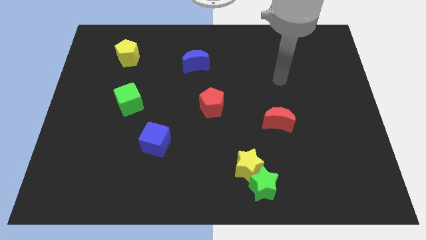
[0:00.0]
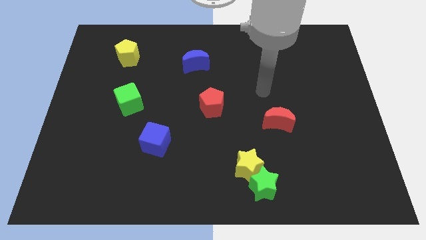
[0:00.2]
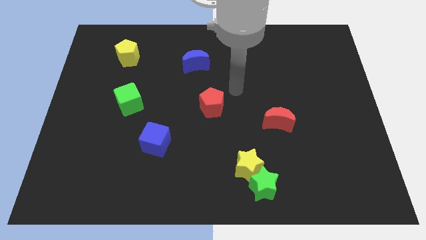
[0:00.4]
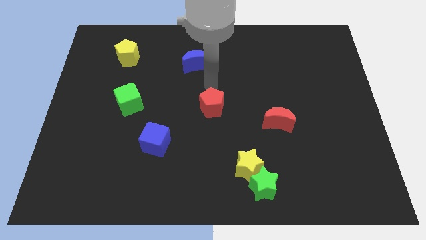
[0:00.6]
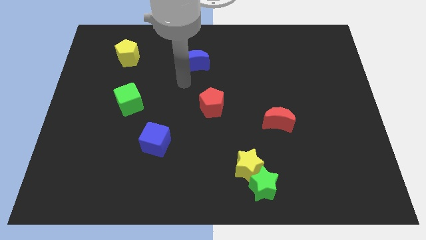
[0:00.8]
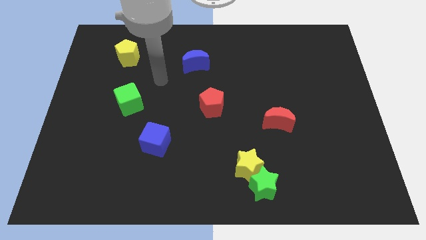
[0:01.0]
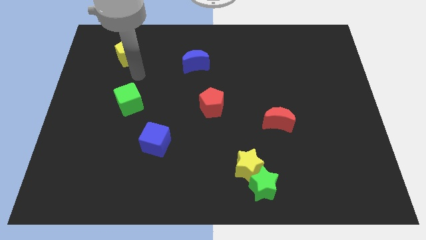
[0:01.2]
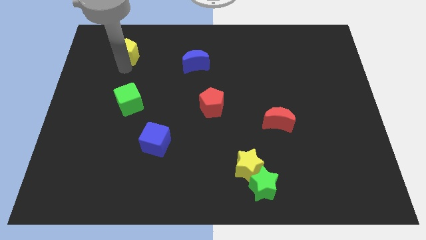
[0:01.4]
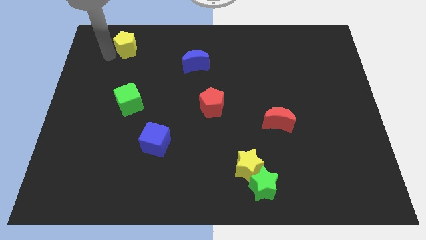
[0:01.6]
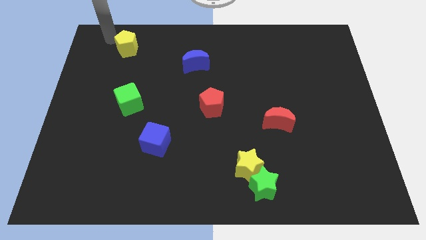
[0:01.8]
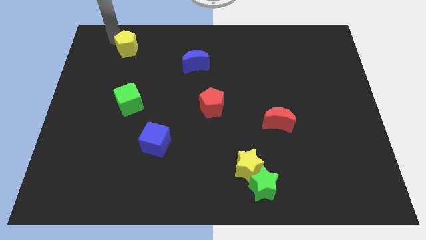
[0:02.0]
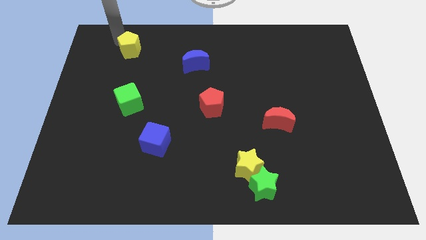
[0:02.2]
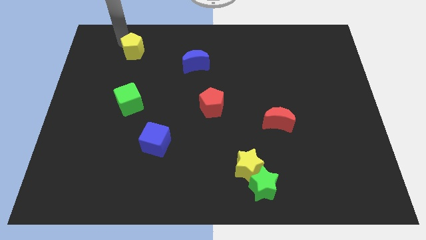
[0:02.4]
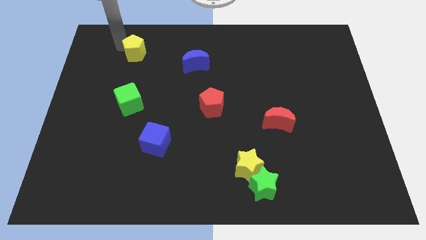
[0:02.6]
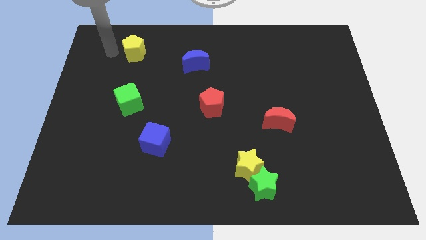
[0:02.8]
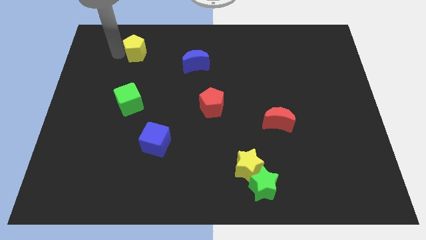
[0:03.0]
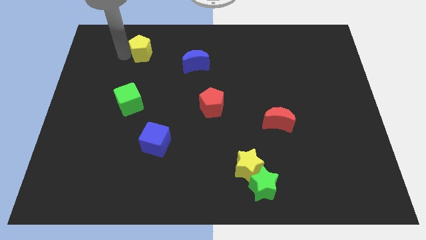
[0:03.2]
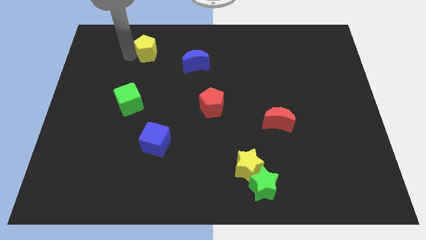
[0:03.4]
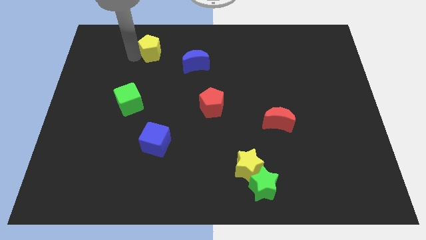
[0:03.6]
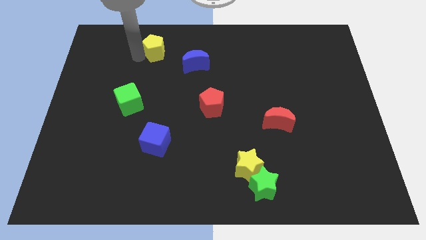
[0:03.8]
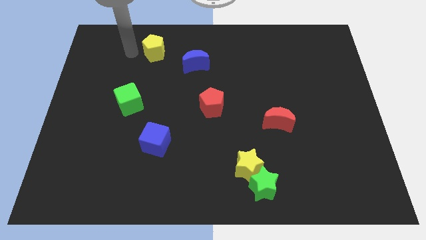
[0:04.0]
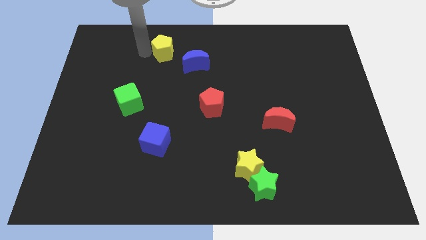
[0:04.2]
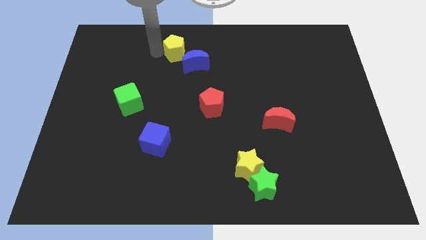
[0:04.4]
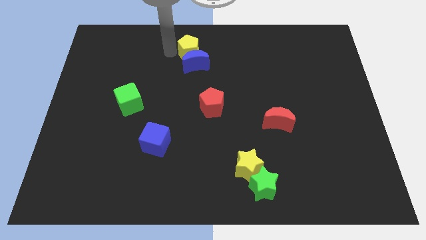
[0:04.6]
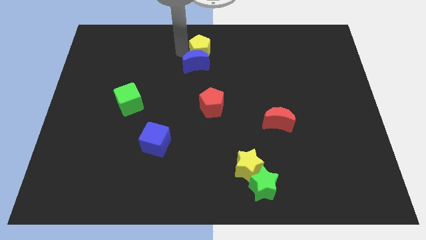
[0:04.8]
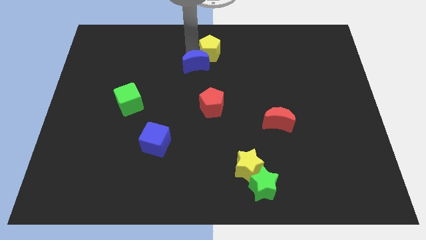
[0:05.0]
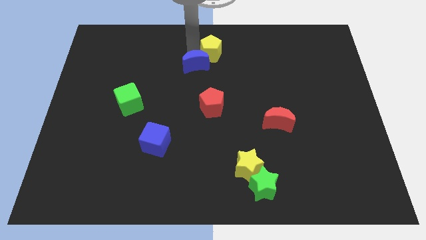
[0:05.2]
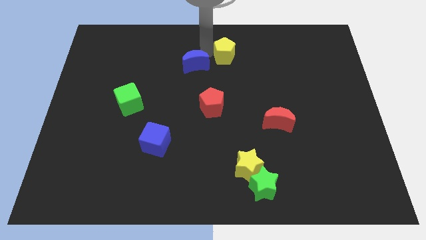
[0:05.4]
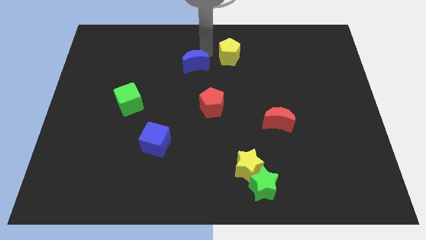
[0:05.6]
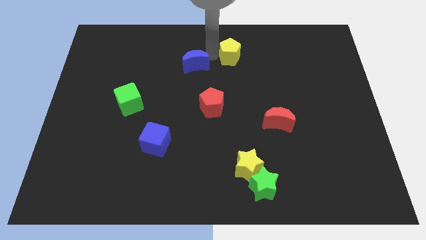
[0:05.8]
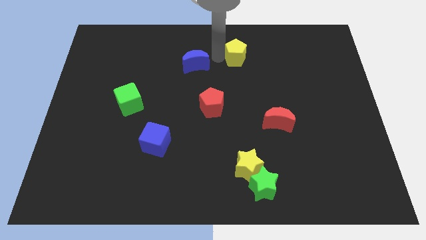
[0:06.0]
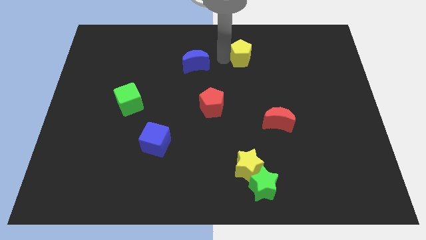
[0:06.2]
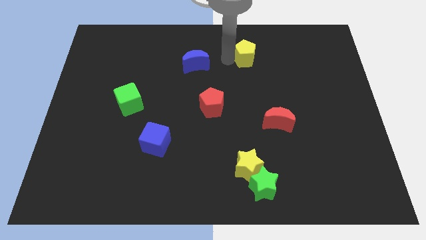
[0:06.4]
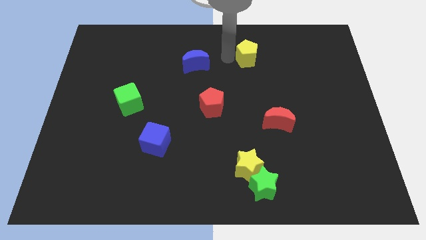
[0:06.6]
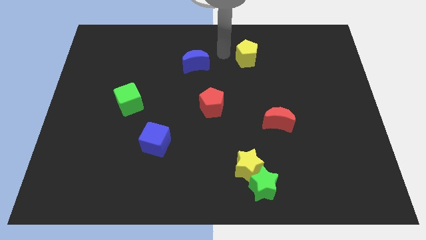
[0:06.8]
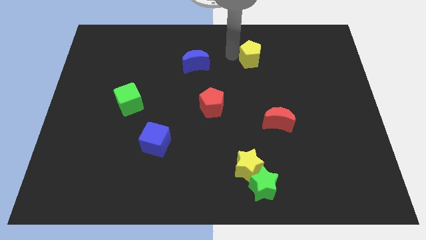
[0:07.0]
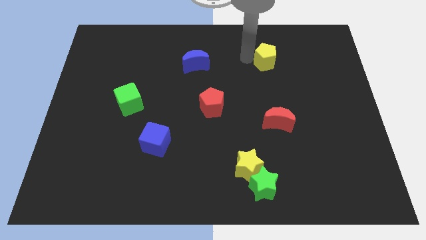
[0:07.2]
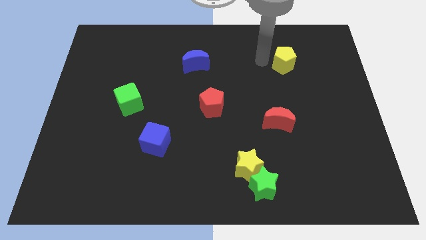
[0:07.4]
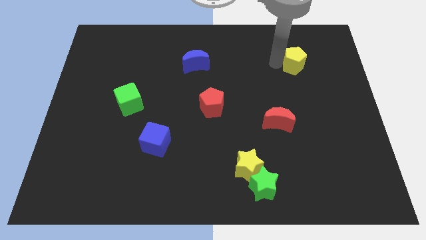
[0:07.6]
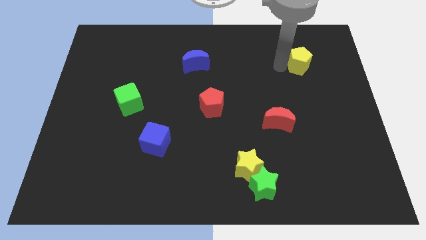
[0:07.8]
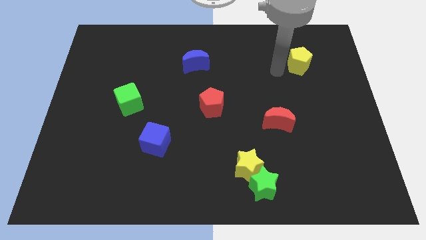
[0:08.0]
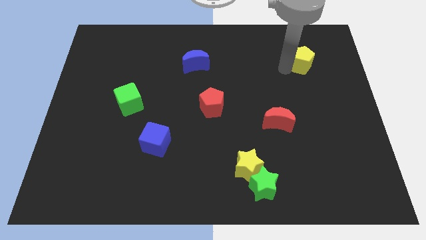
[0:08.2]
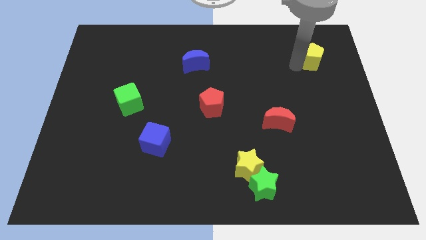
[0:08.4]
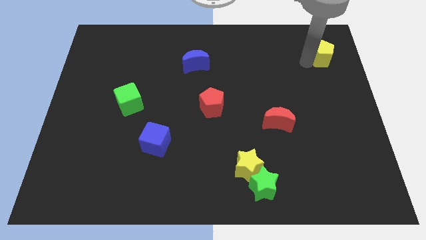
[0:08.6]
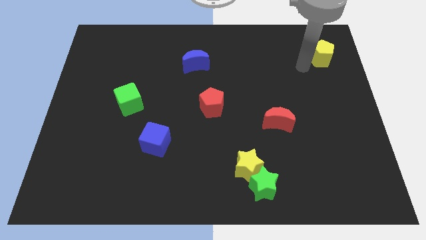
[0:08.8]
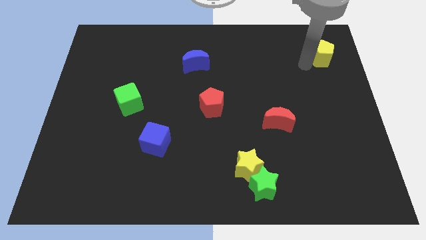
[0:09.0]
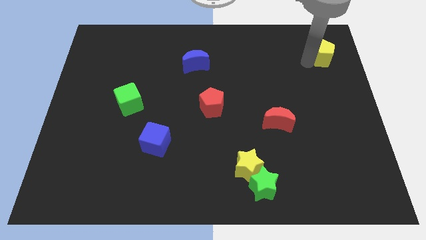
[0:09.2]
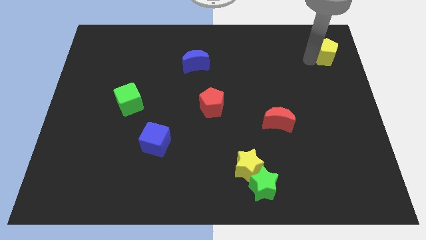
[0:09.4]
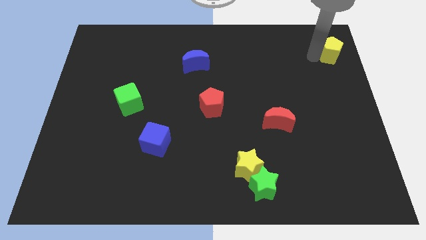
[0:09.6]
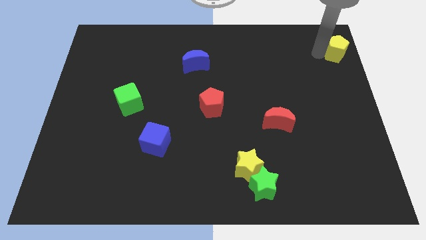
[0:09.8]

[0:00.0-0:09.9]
put the yellow pentagon to the top right of the board

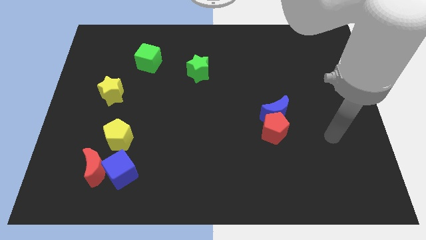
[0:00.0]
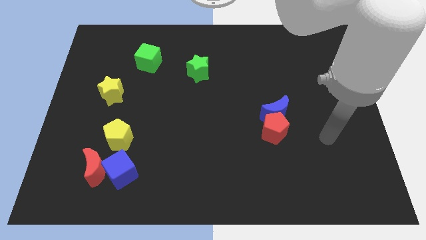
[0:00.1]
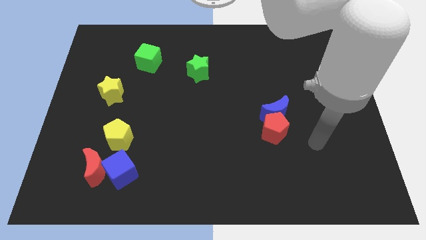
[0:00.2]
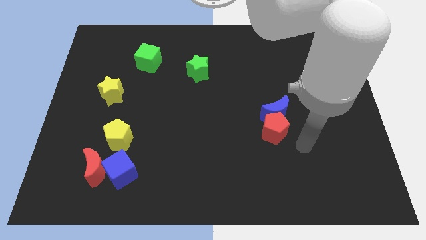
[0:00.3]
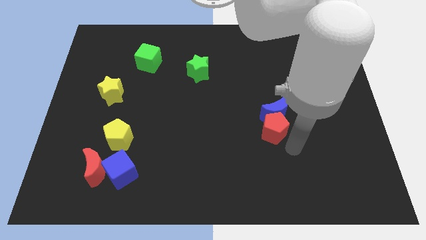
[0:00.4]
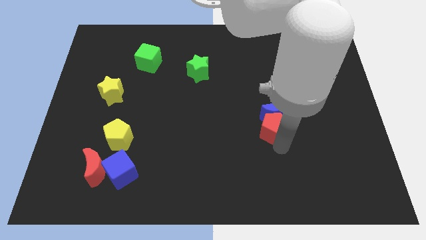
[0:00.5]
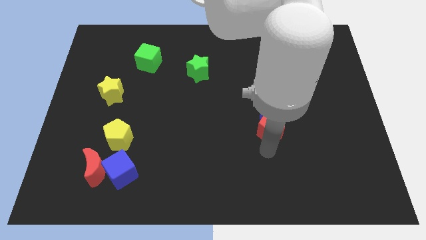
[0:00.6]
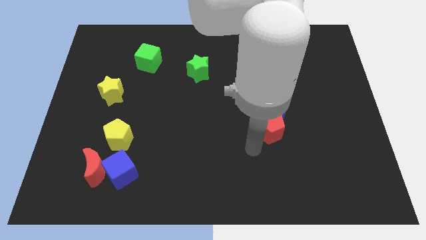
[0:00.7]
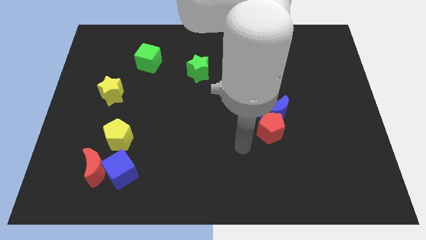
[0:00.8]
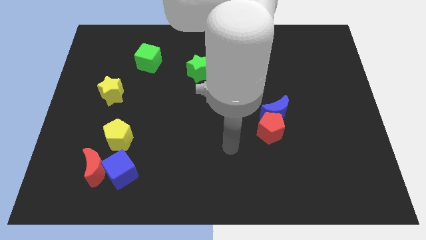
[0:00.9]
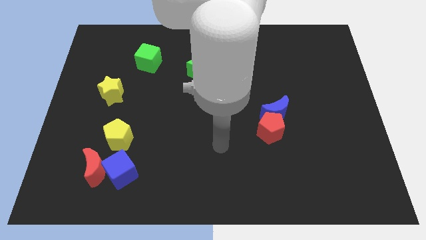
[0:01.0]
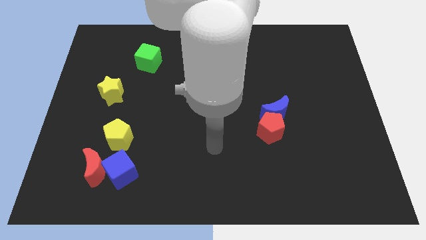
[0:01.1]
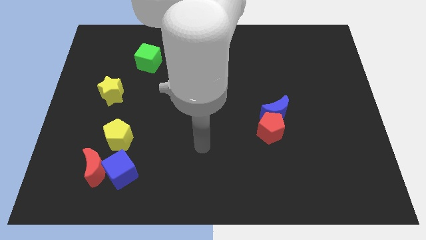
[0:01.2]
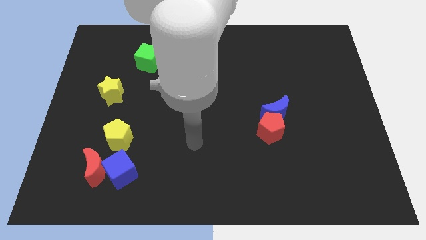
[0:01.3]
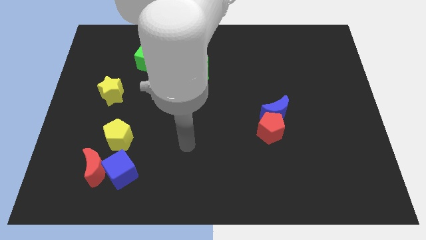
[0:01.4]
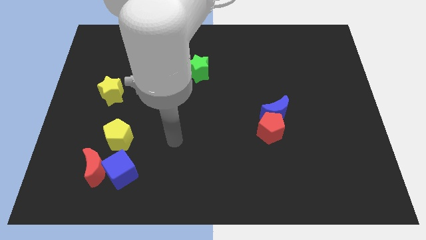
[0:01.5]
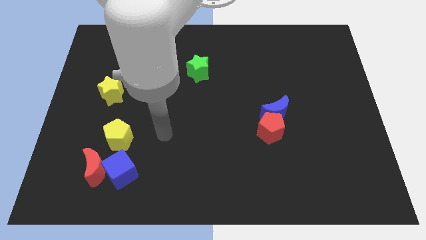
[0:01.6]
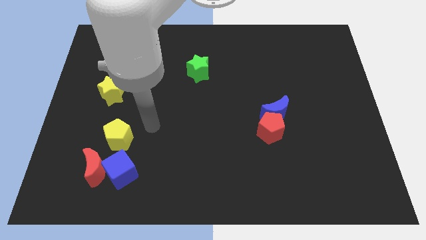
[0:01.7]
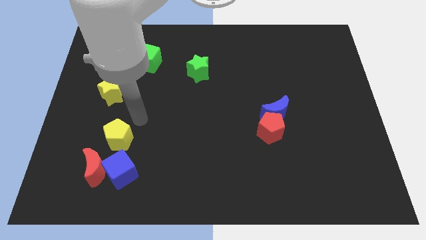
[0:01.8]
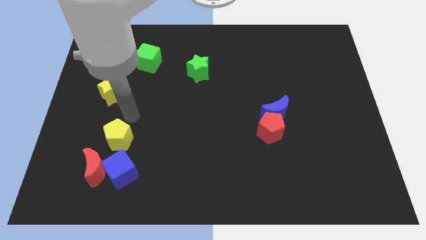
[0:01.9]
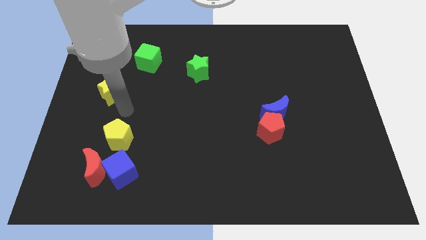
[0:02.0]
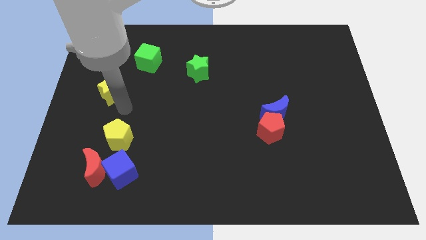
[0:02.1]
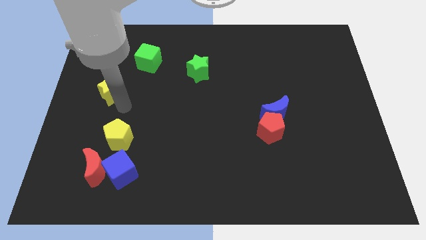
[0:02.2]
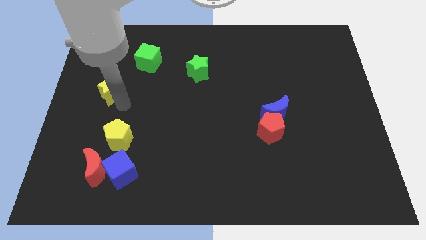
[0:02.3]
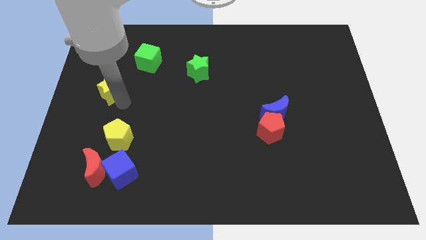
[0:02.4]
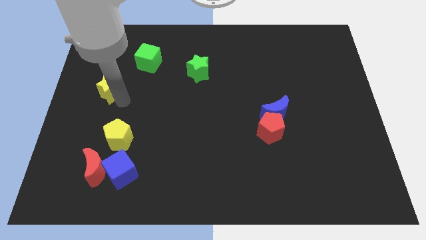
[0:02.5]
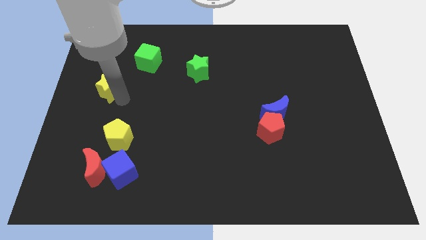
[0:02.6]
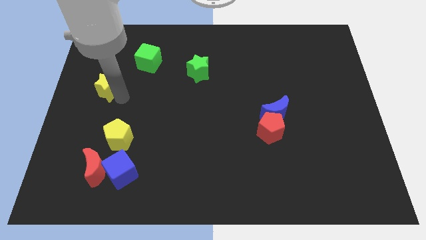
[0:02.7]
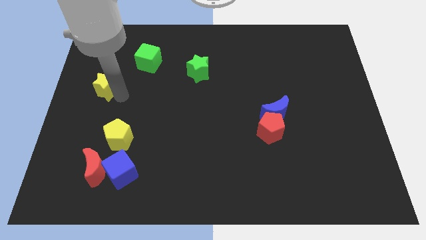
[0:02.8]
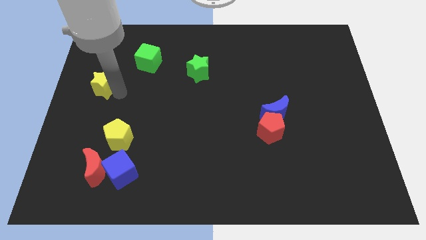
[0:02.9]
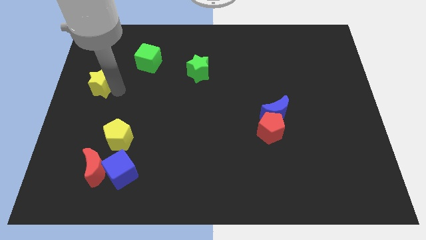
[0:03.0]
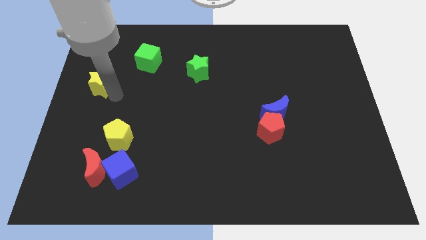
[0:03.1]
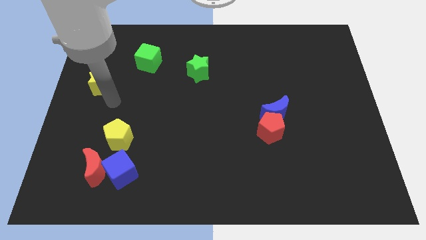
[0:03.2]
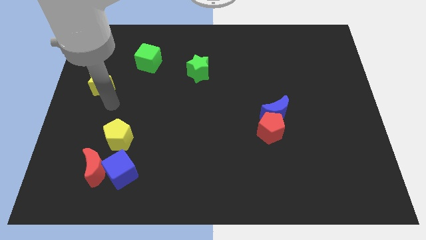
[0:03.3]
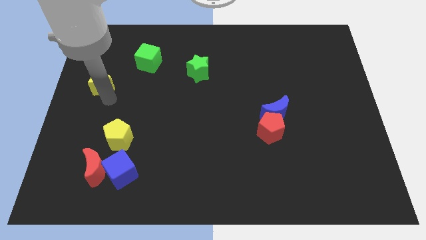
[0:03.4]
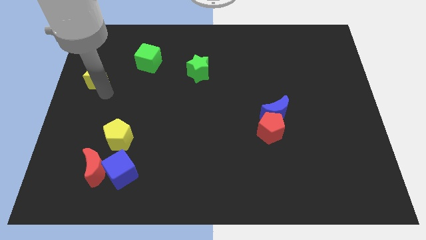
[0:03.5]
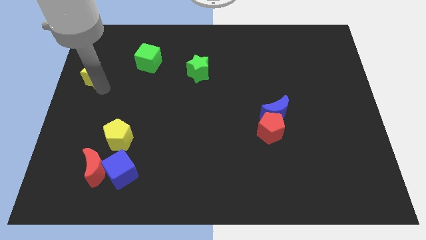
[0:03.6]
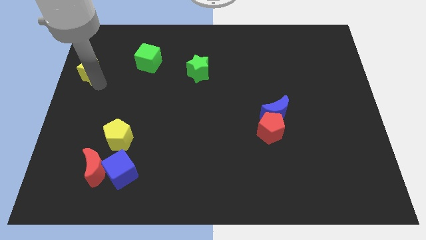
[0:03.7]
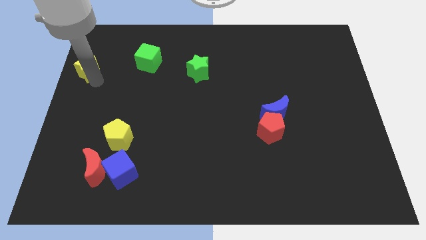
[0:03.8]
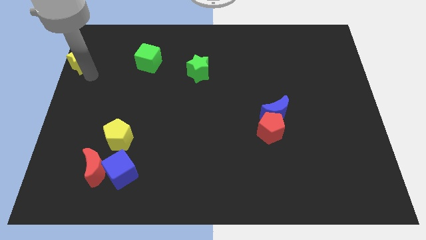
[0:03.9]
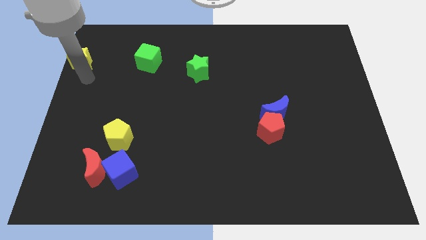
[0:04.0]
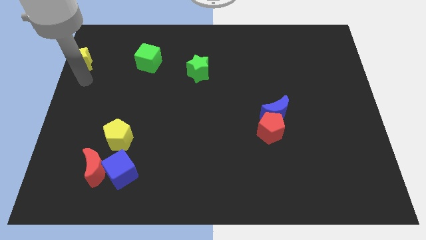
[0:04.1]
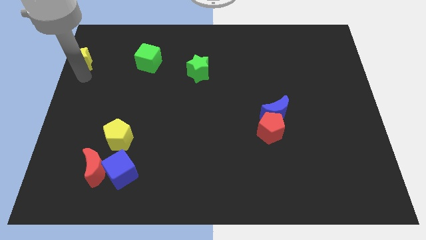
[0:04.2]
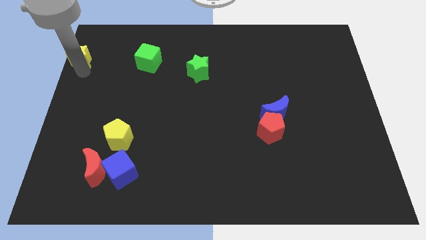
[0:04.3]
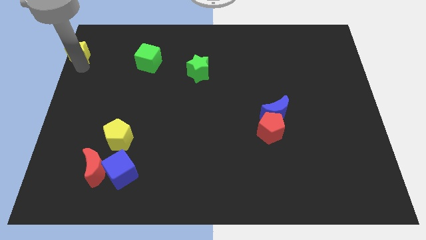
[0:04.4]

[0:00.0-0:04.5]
move the yellow star to the top left corner
